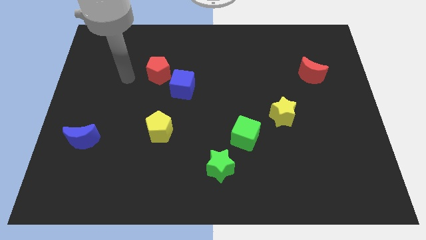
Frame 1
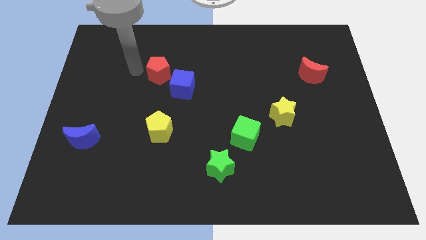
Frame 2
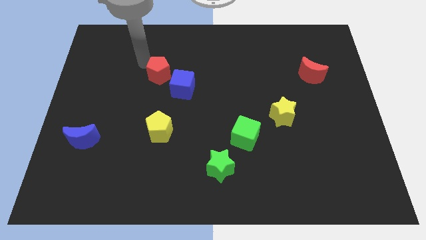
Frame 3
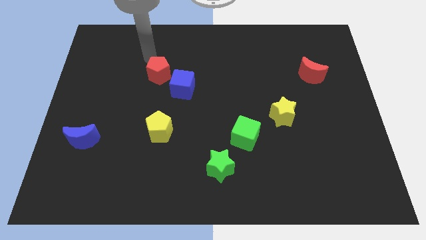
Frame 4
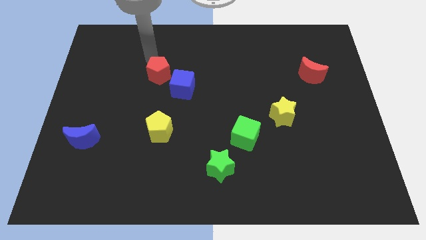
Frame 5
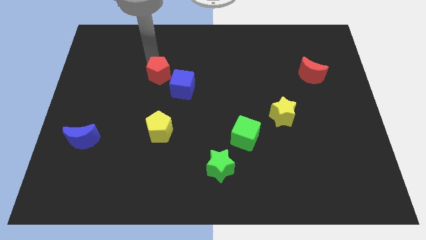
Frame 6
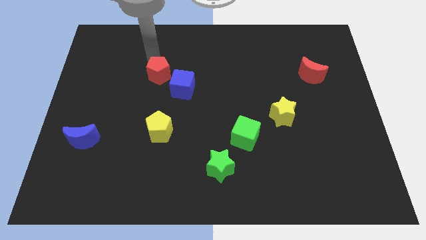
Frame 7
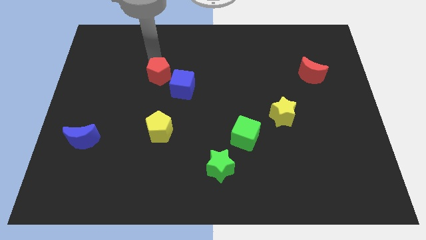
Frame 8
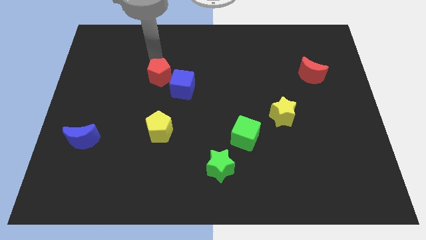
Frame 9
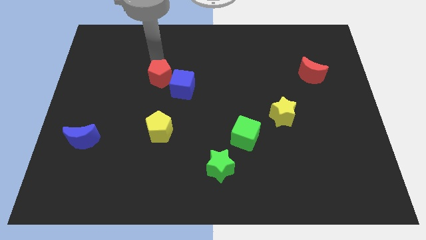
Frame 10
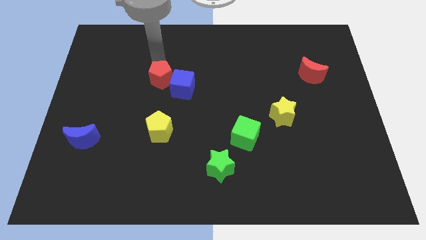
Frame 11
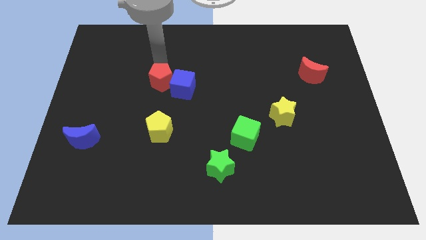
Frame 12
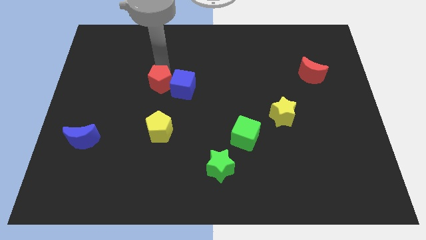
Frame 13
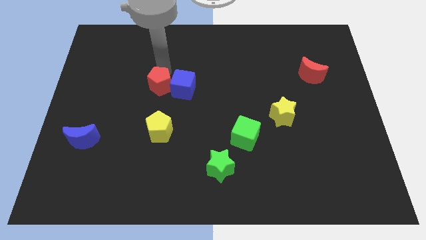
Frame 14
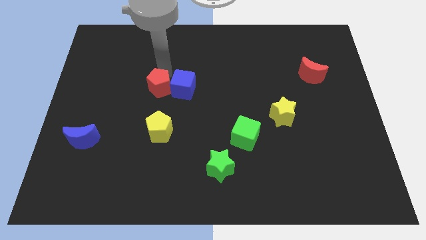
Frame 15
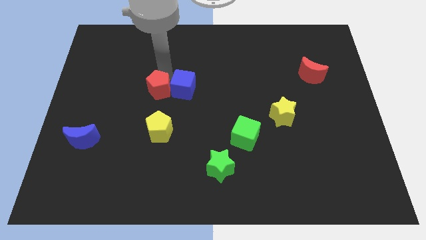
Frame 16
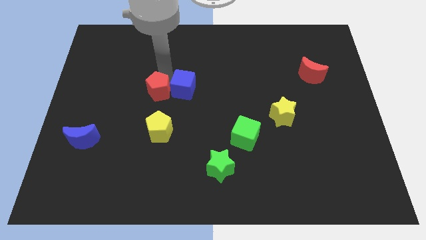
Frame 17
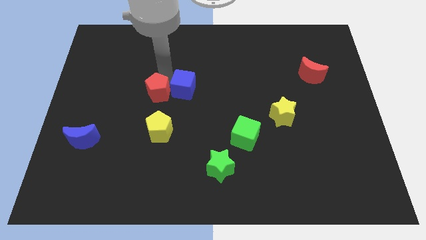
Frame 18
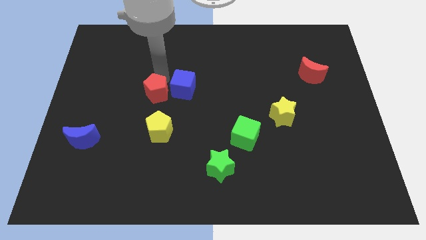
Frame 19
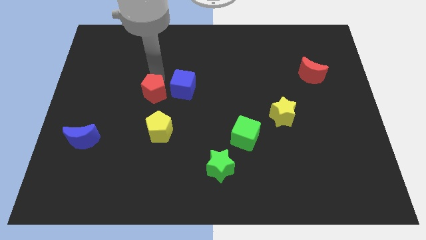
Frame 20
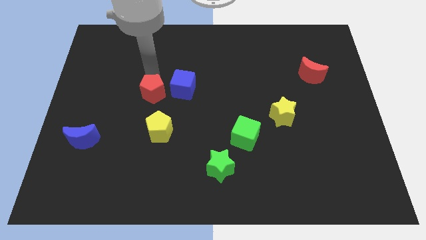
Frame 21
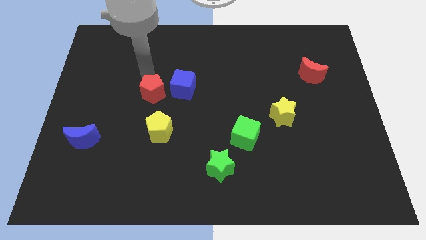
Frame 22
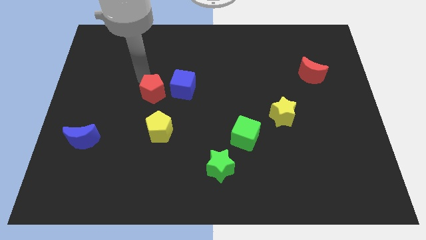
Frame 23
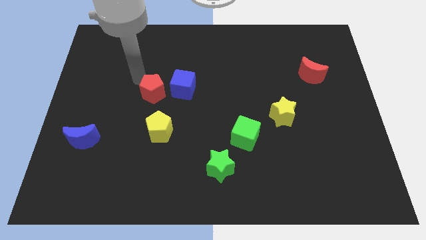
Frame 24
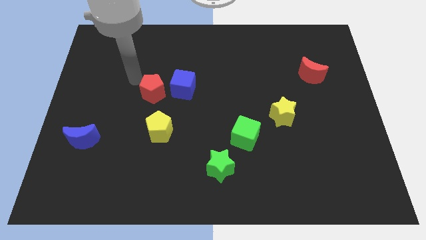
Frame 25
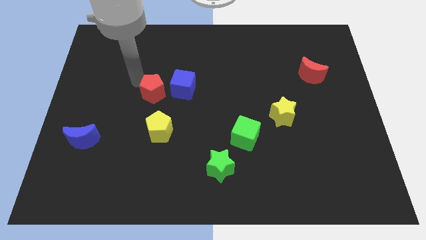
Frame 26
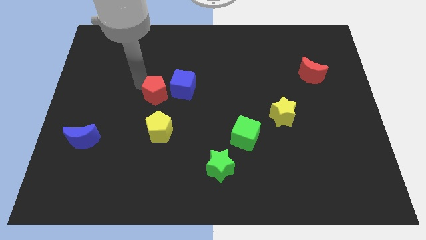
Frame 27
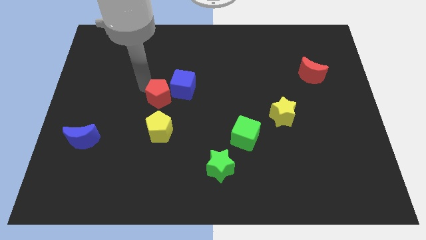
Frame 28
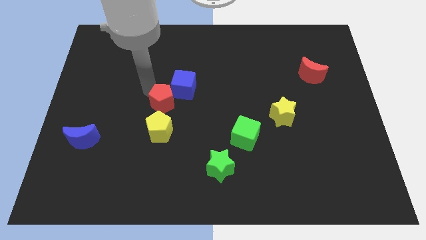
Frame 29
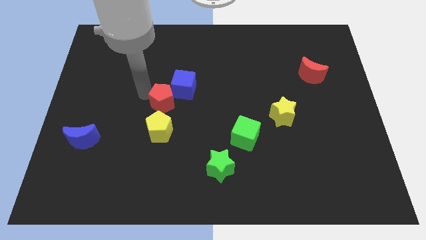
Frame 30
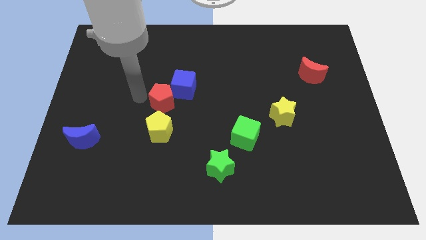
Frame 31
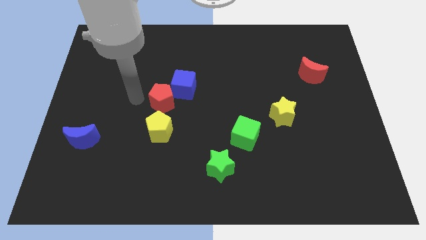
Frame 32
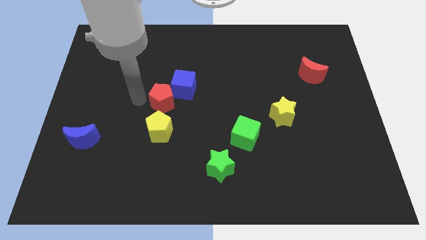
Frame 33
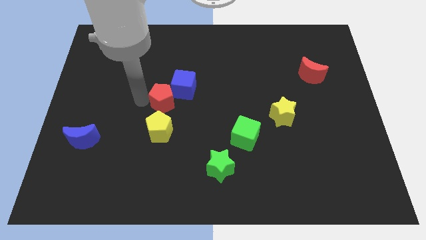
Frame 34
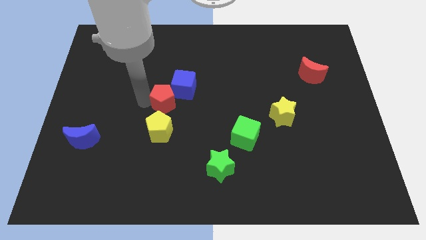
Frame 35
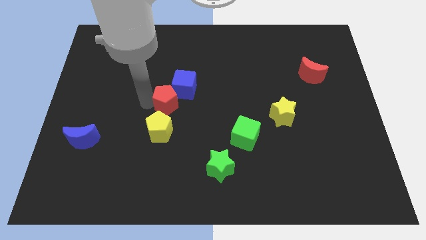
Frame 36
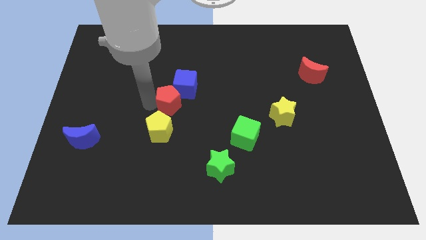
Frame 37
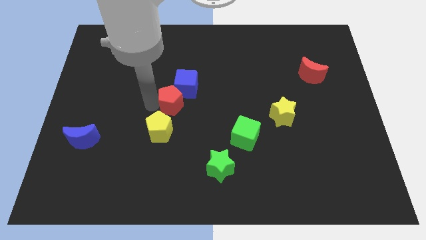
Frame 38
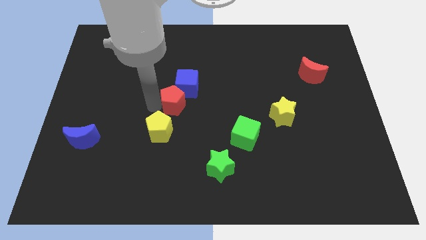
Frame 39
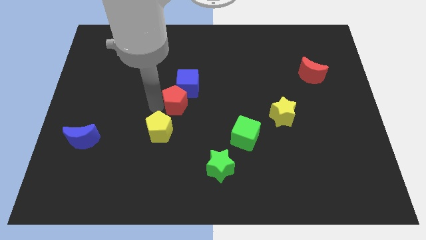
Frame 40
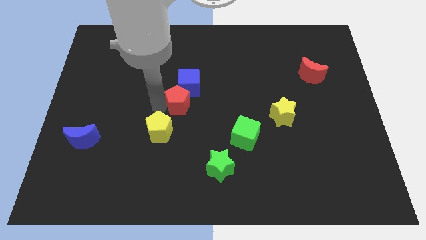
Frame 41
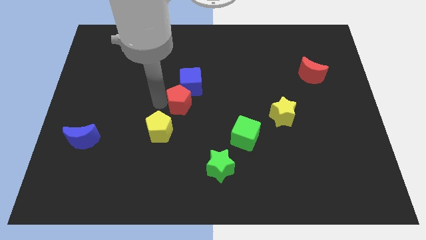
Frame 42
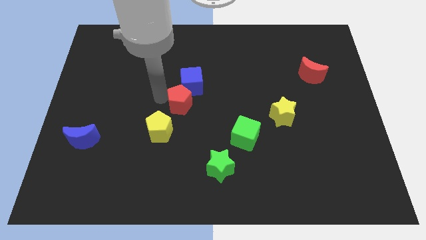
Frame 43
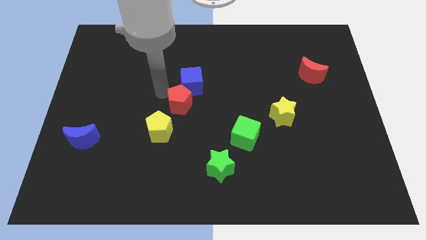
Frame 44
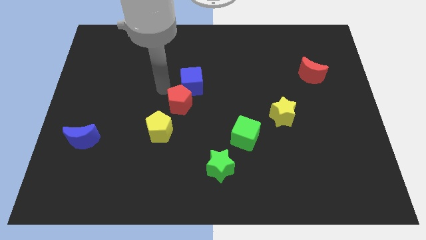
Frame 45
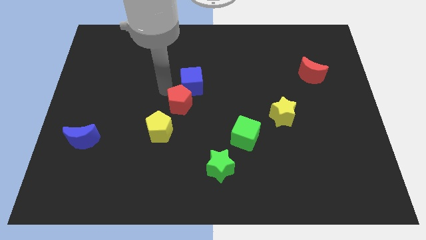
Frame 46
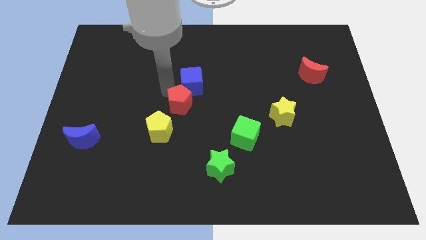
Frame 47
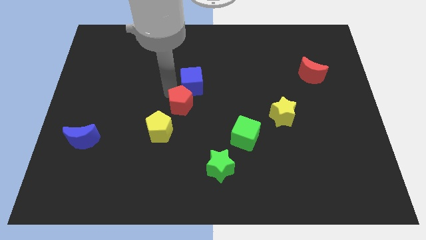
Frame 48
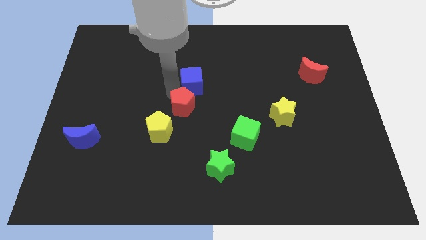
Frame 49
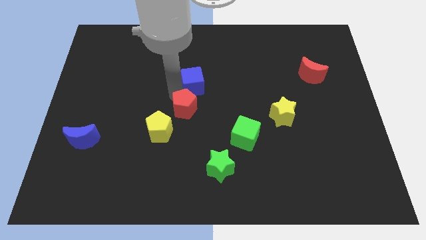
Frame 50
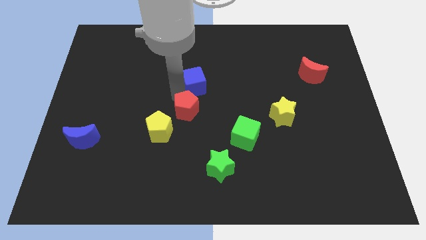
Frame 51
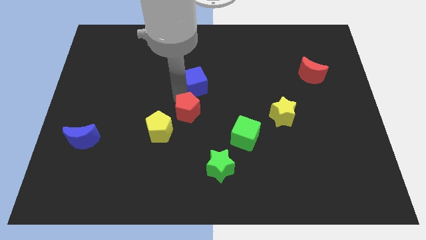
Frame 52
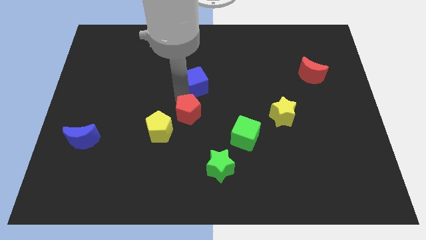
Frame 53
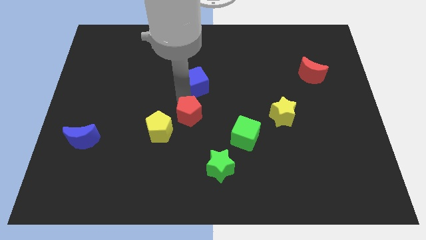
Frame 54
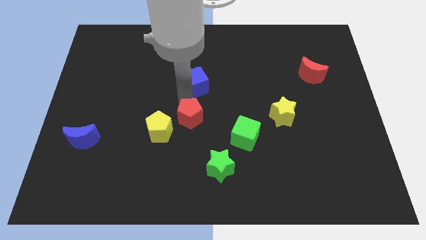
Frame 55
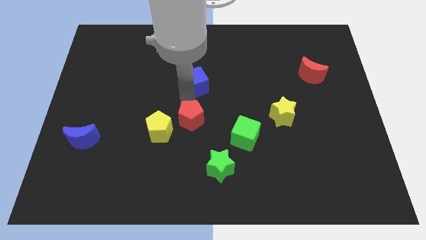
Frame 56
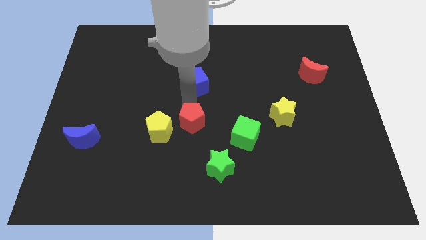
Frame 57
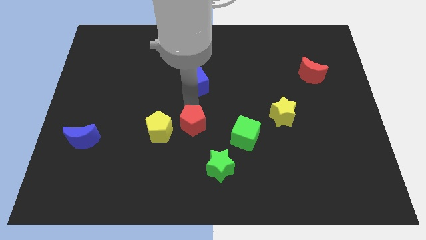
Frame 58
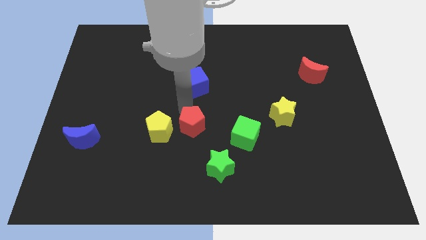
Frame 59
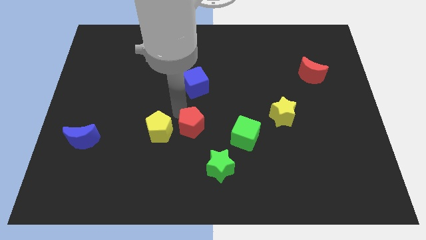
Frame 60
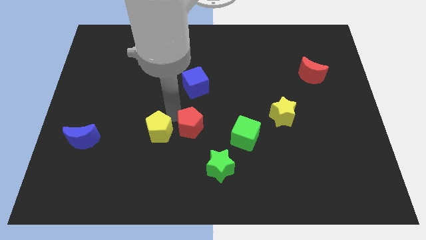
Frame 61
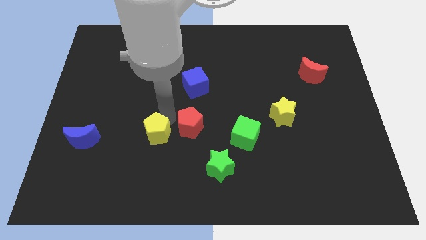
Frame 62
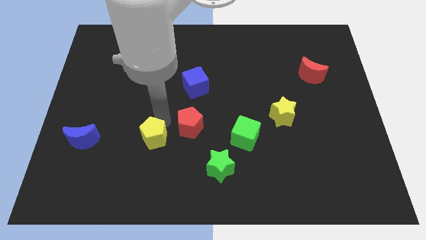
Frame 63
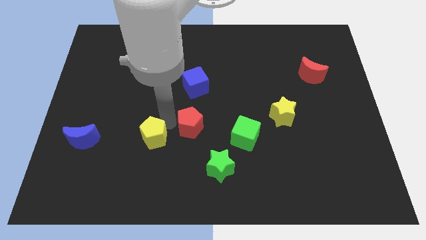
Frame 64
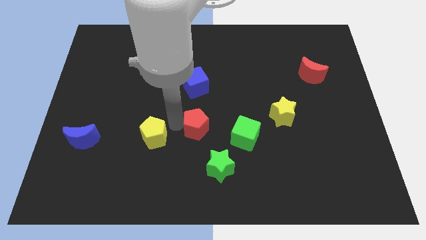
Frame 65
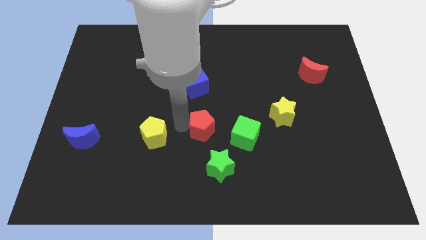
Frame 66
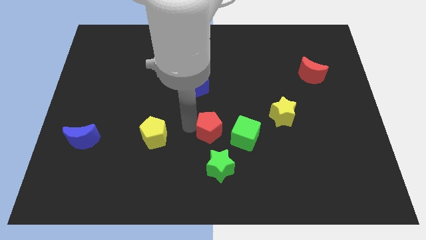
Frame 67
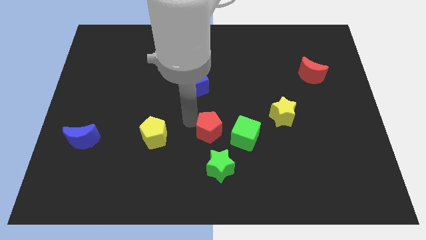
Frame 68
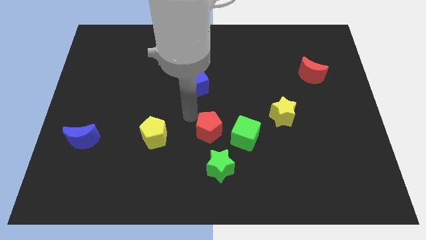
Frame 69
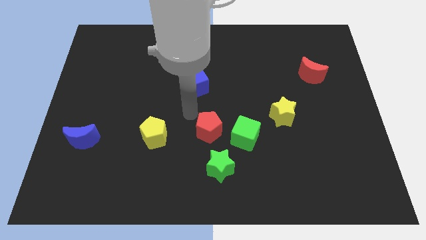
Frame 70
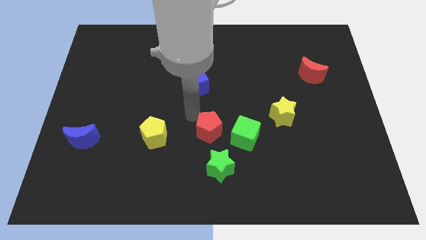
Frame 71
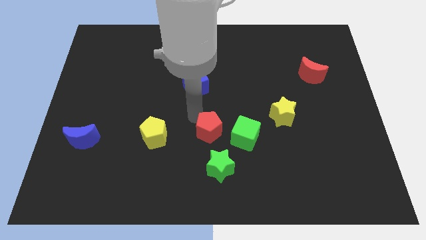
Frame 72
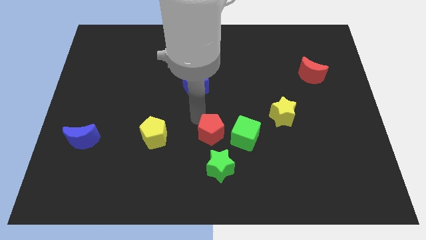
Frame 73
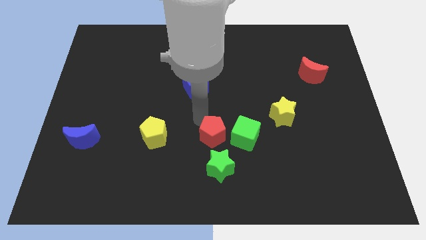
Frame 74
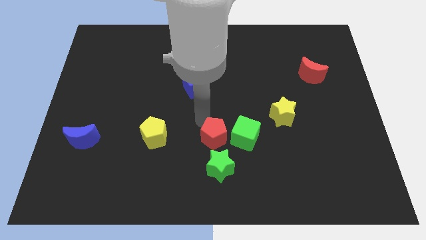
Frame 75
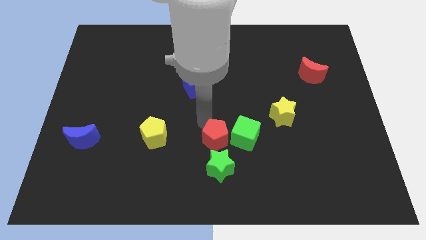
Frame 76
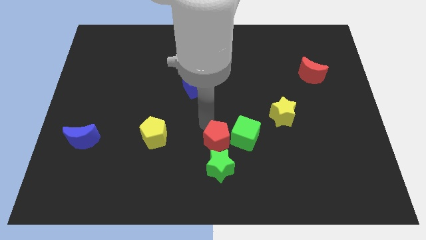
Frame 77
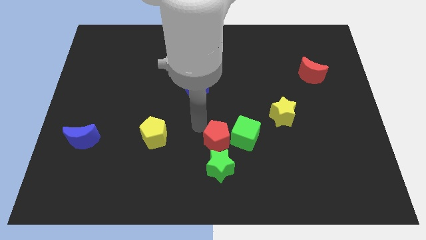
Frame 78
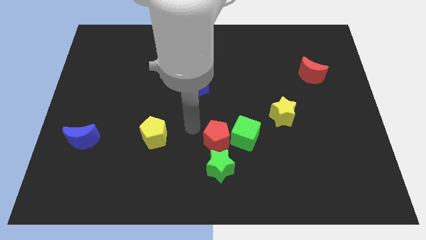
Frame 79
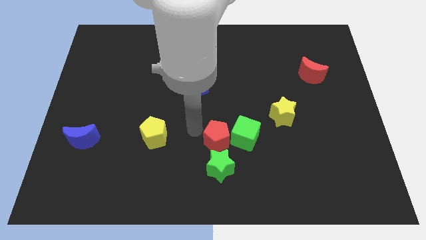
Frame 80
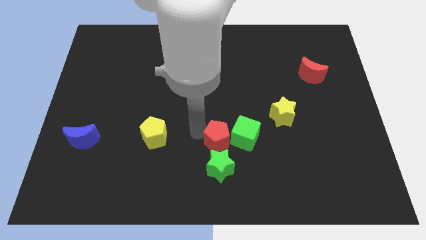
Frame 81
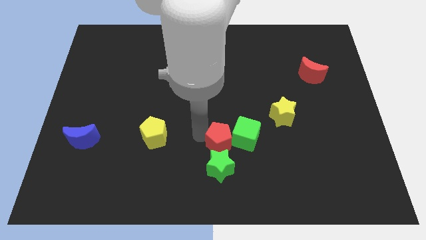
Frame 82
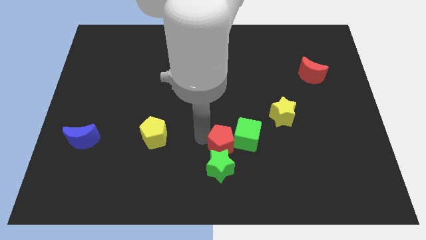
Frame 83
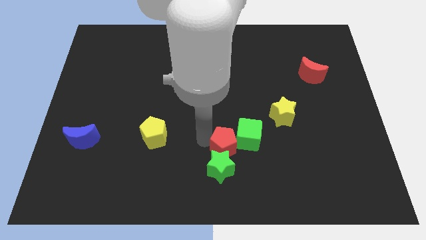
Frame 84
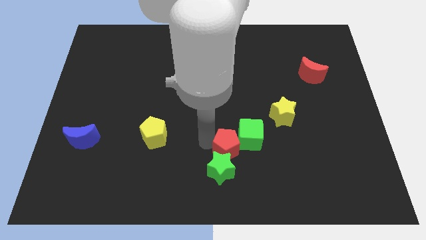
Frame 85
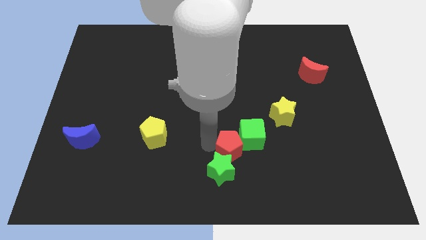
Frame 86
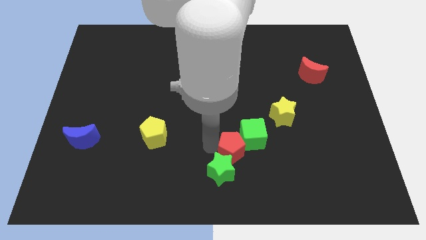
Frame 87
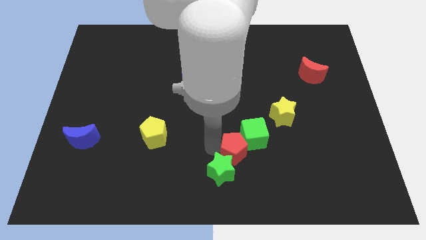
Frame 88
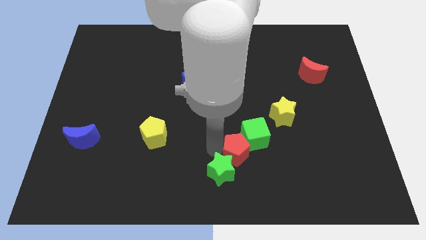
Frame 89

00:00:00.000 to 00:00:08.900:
slide the red pentagon to the right of the green star
